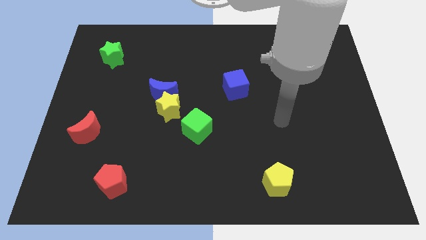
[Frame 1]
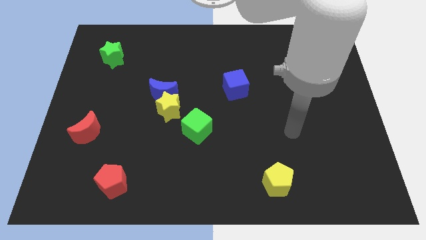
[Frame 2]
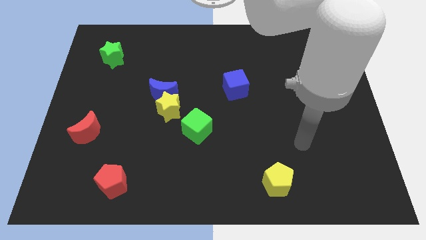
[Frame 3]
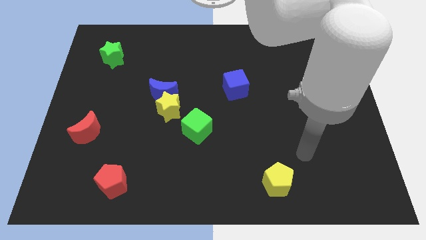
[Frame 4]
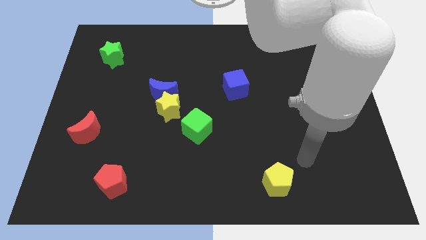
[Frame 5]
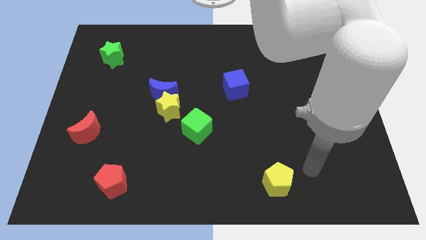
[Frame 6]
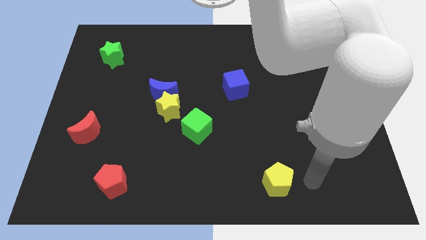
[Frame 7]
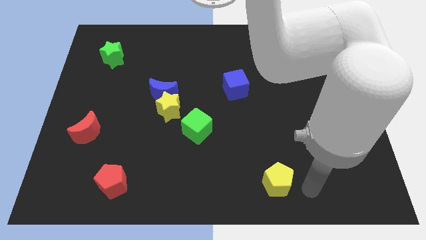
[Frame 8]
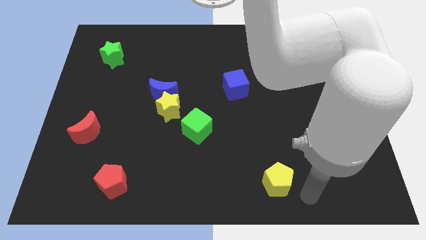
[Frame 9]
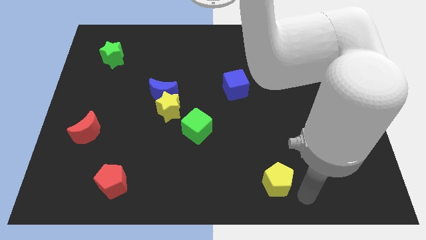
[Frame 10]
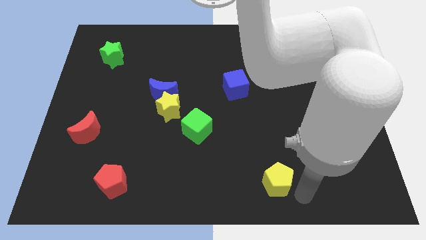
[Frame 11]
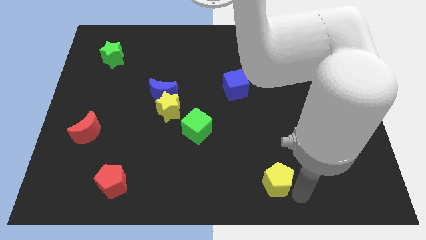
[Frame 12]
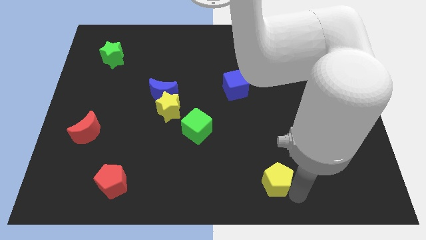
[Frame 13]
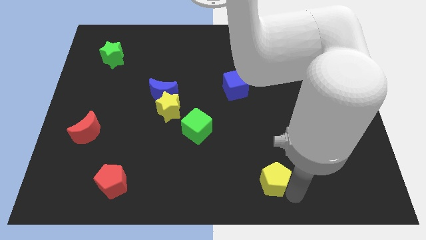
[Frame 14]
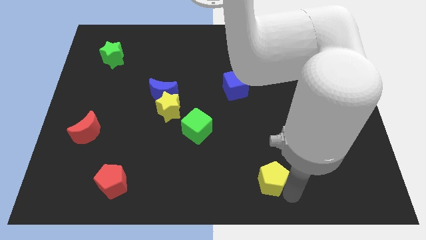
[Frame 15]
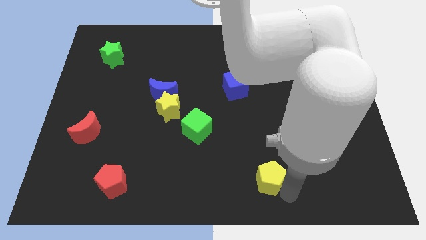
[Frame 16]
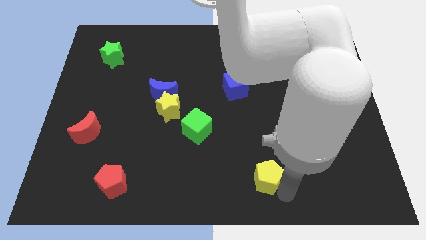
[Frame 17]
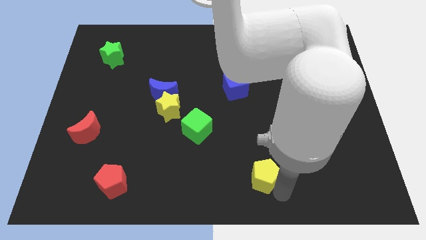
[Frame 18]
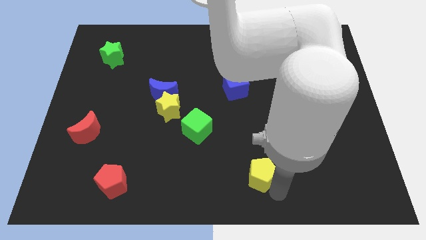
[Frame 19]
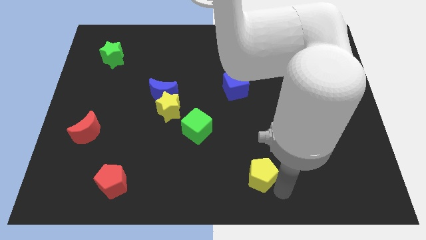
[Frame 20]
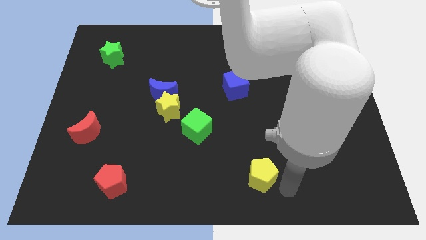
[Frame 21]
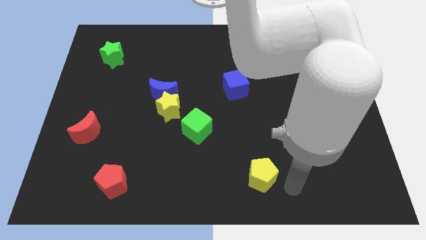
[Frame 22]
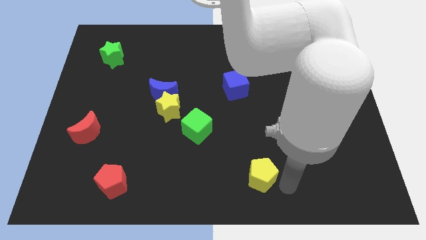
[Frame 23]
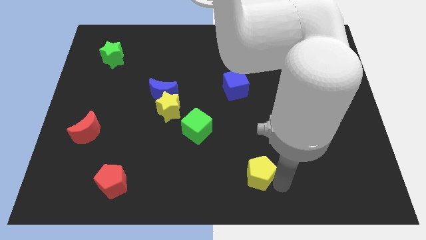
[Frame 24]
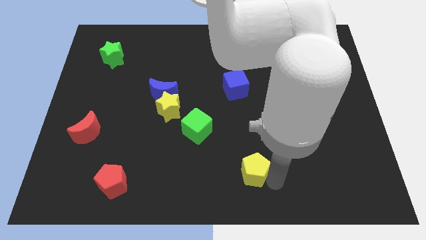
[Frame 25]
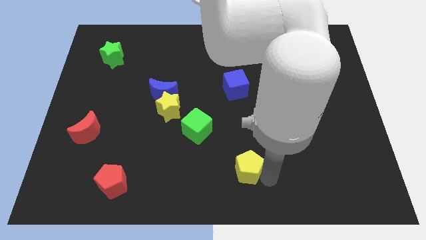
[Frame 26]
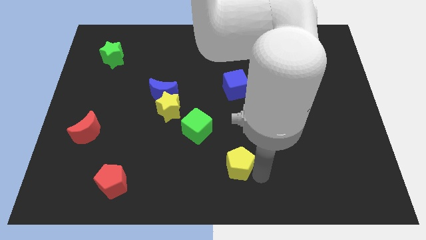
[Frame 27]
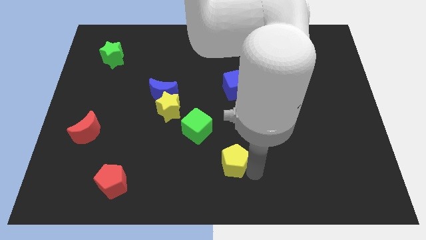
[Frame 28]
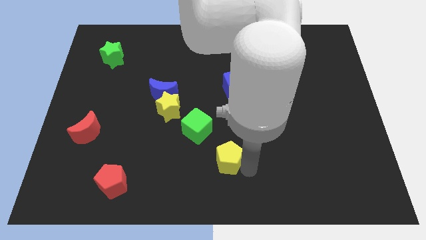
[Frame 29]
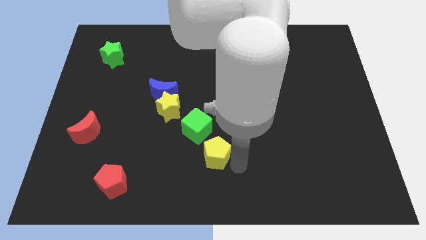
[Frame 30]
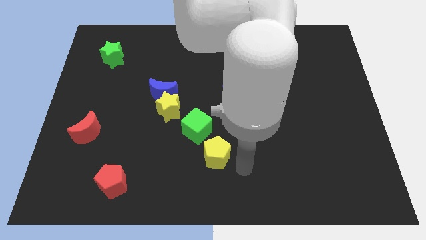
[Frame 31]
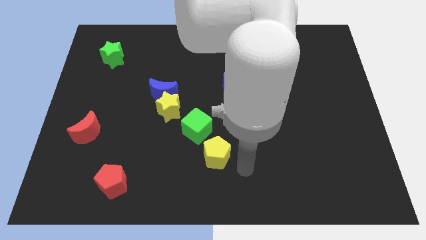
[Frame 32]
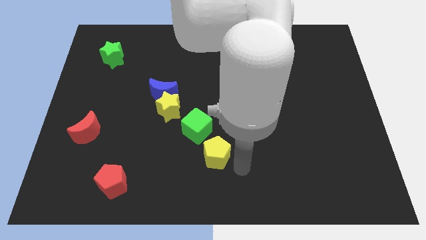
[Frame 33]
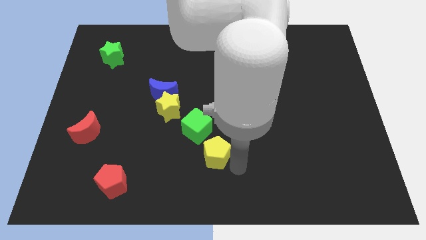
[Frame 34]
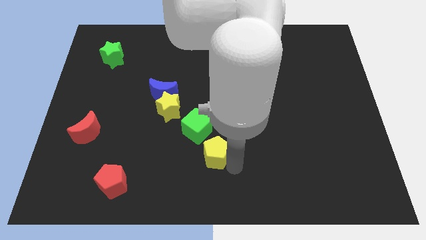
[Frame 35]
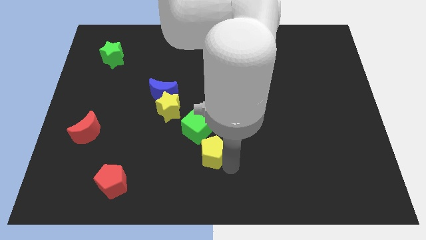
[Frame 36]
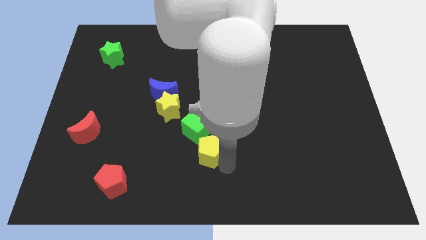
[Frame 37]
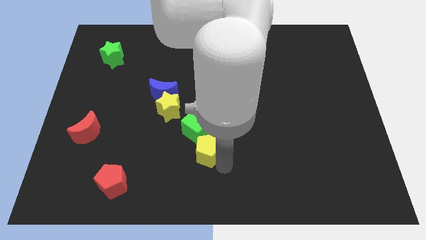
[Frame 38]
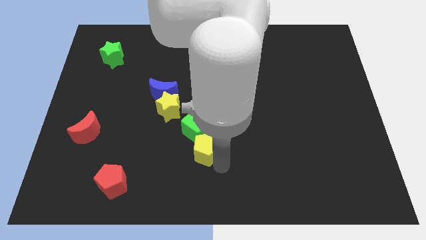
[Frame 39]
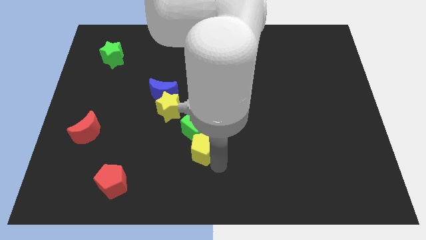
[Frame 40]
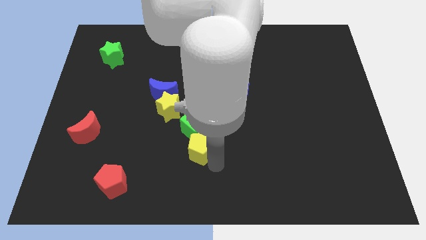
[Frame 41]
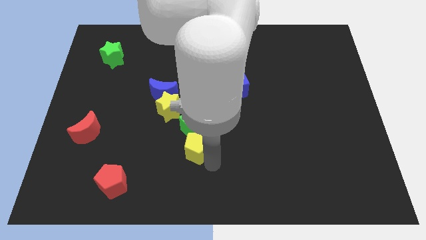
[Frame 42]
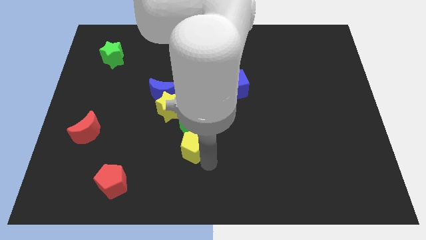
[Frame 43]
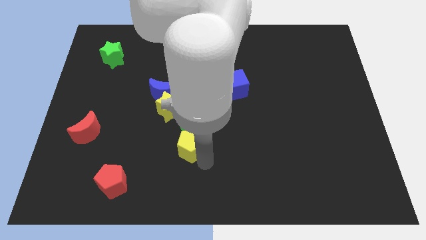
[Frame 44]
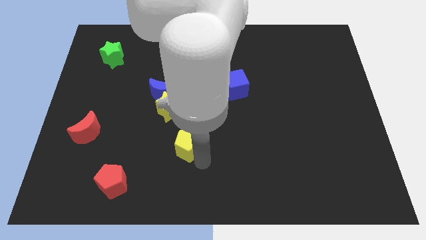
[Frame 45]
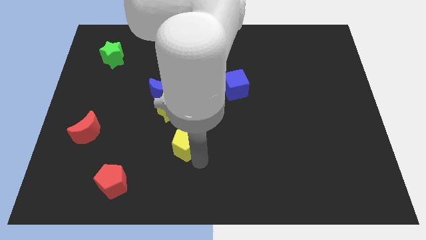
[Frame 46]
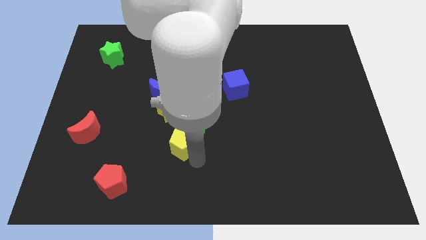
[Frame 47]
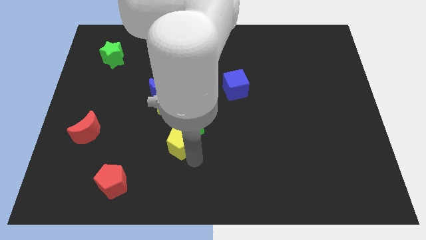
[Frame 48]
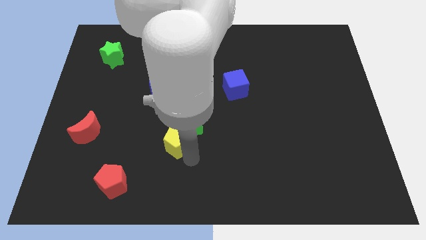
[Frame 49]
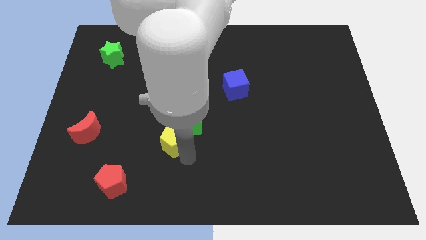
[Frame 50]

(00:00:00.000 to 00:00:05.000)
slide the yellow pentagon to the bottom side of the blue moon

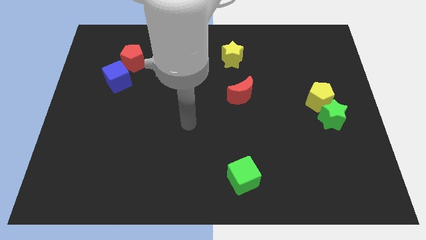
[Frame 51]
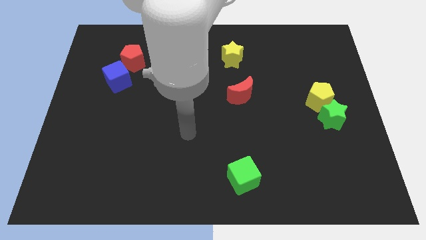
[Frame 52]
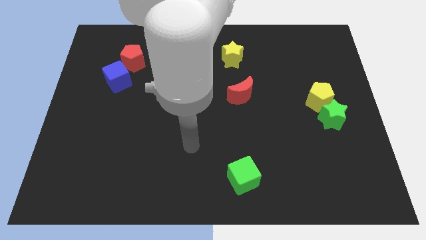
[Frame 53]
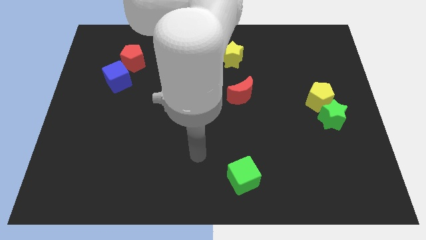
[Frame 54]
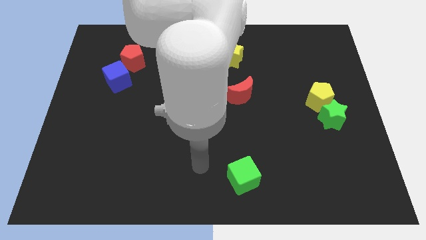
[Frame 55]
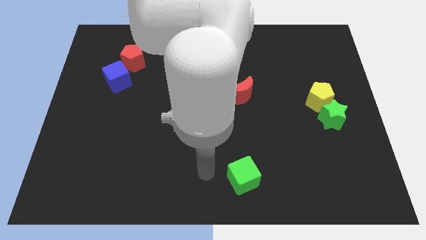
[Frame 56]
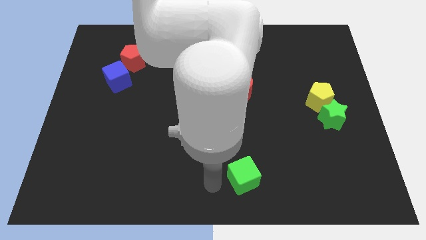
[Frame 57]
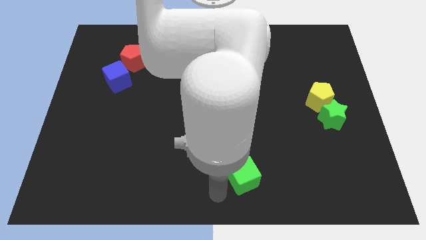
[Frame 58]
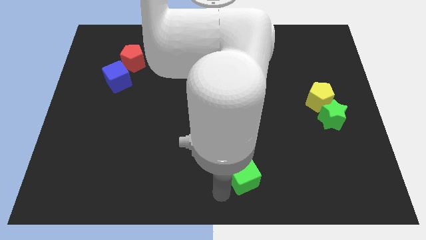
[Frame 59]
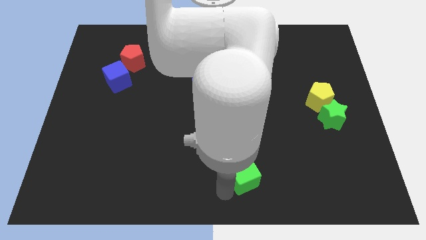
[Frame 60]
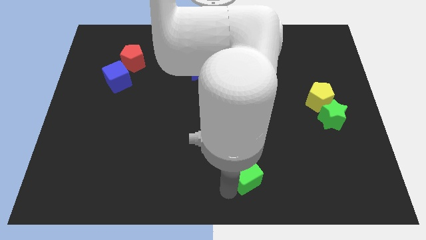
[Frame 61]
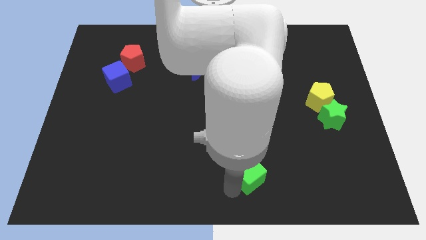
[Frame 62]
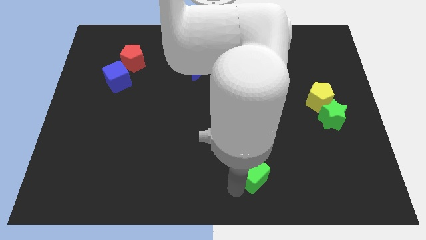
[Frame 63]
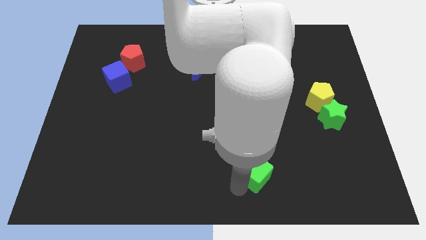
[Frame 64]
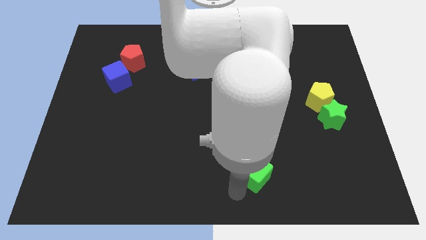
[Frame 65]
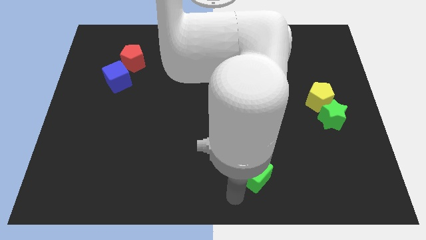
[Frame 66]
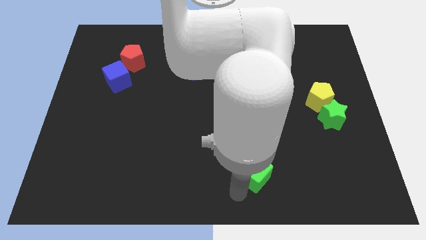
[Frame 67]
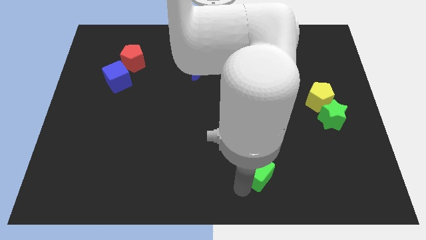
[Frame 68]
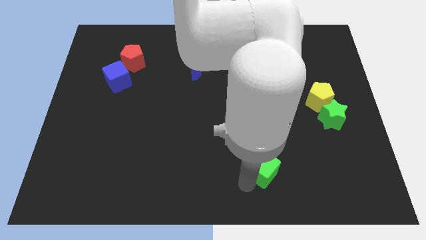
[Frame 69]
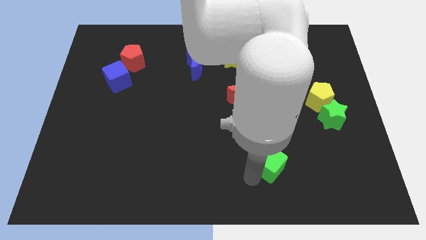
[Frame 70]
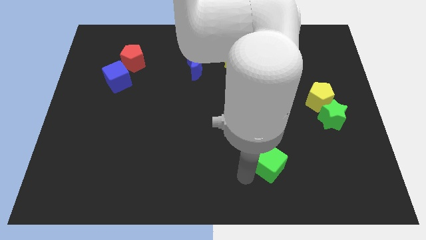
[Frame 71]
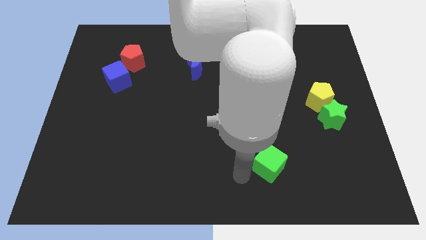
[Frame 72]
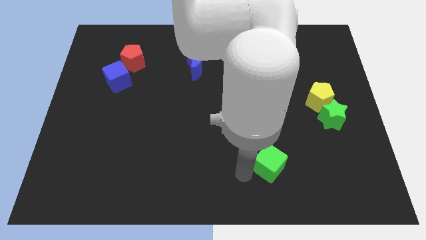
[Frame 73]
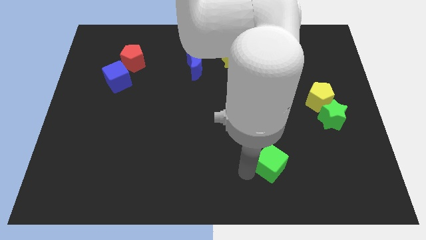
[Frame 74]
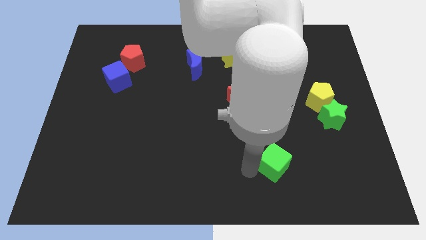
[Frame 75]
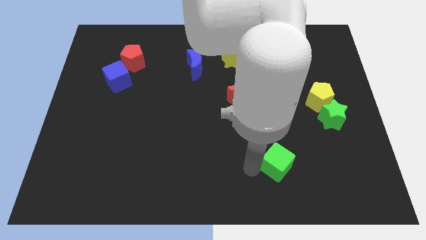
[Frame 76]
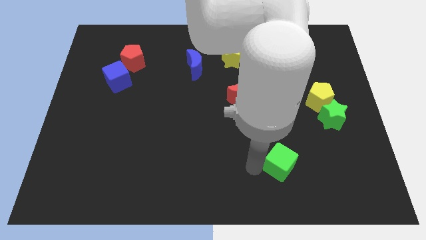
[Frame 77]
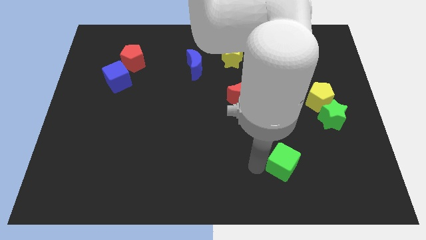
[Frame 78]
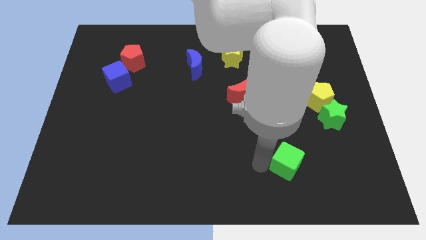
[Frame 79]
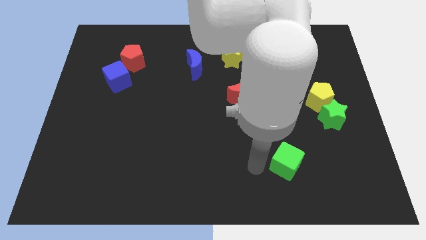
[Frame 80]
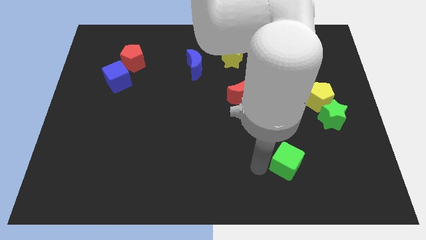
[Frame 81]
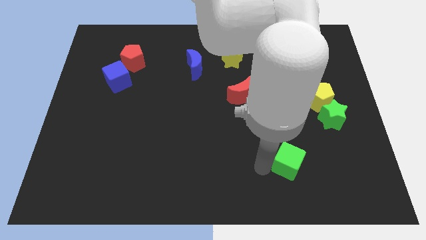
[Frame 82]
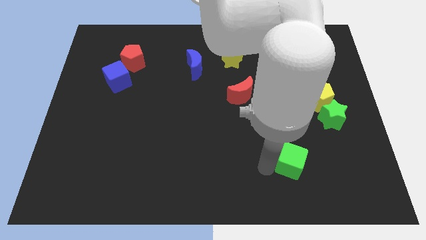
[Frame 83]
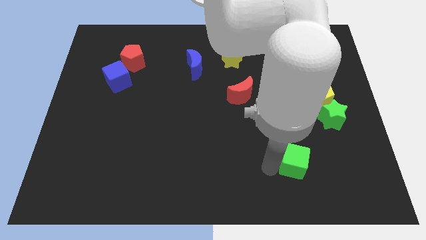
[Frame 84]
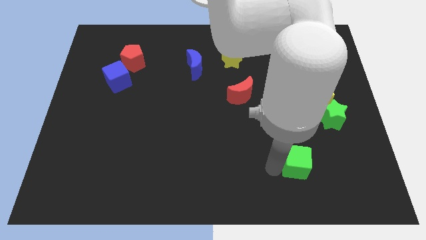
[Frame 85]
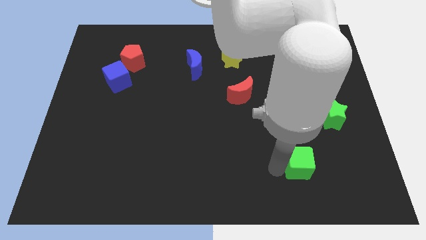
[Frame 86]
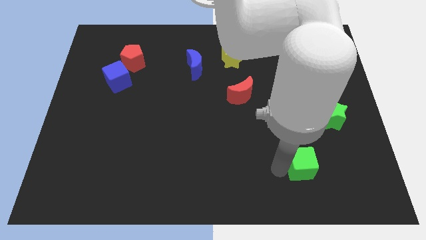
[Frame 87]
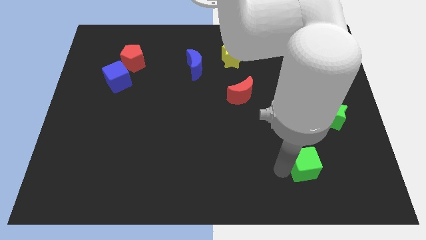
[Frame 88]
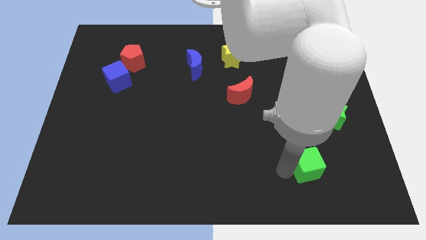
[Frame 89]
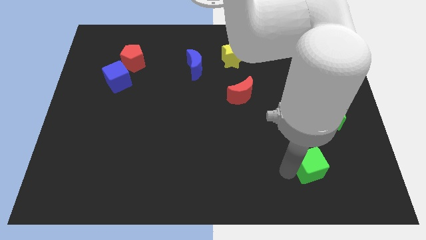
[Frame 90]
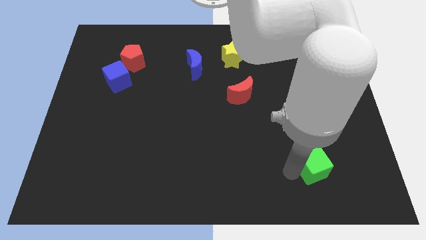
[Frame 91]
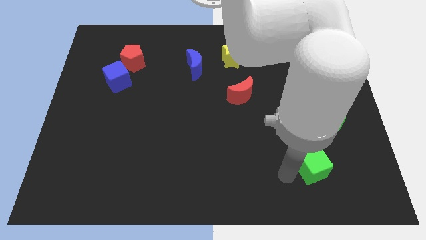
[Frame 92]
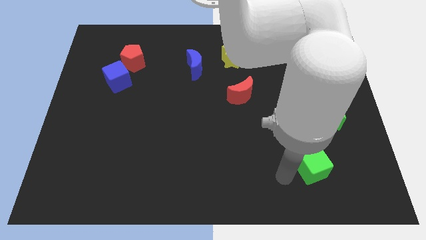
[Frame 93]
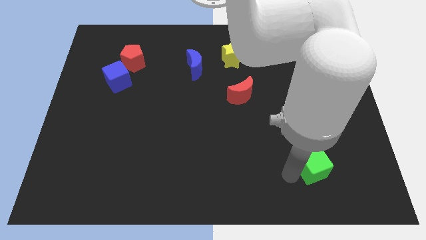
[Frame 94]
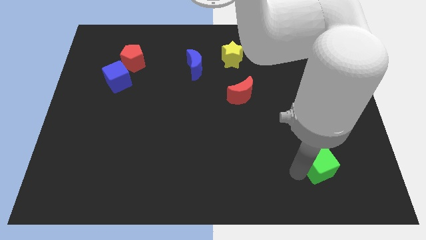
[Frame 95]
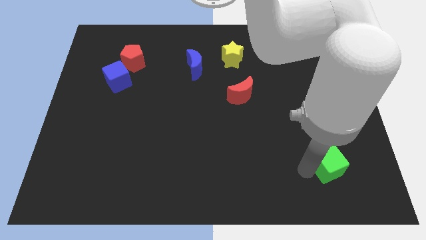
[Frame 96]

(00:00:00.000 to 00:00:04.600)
push the green cube to the bottom side of the green star
